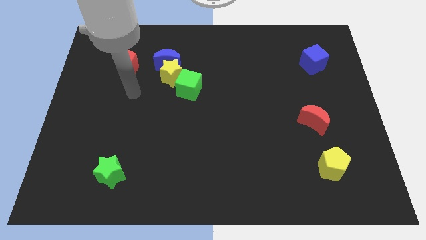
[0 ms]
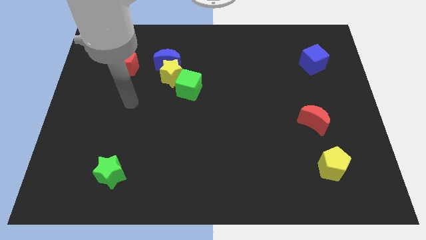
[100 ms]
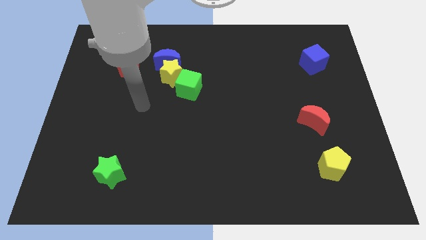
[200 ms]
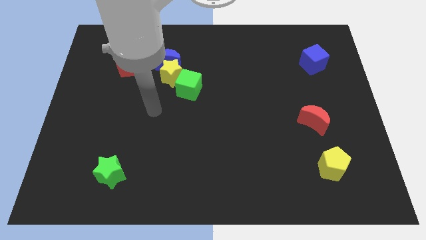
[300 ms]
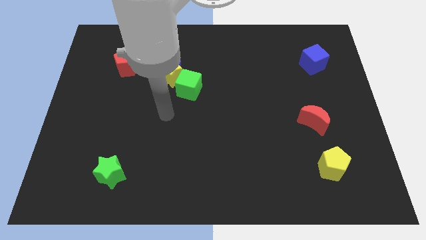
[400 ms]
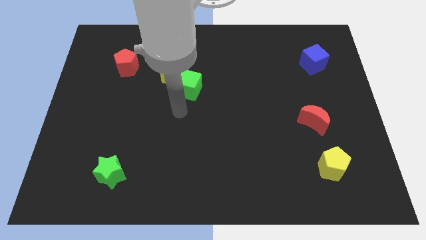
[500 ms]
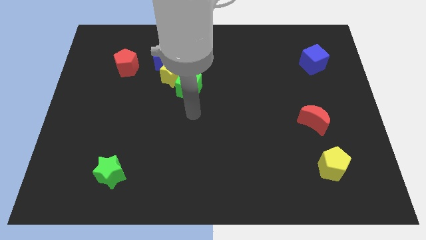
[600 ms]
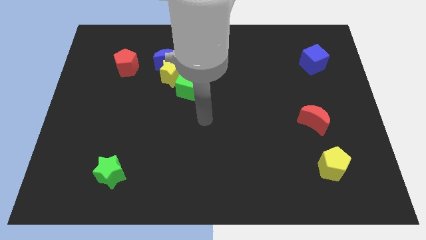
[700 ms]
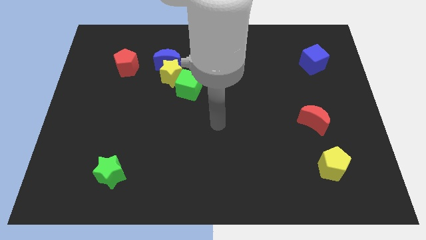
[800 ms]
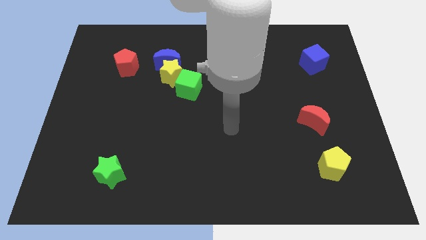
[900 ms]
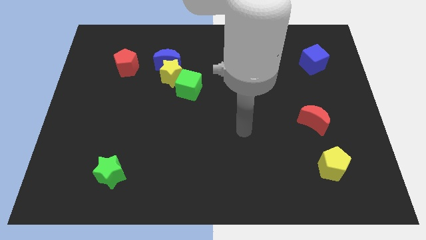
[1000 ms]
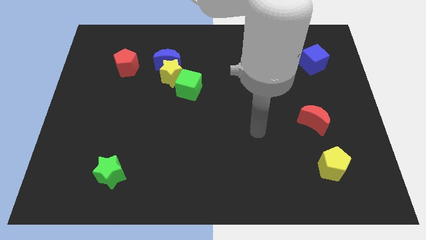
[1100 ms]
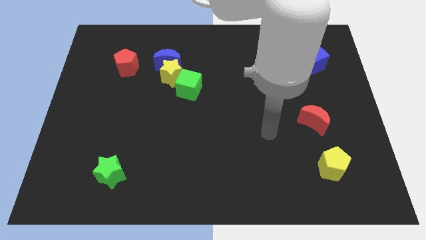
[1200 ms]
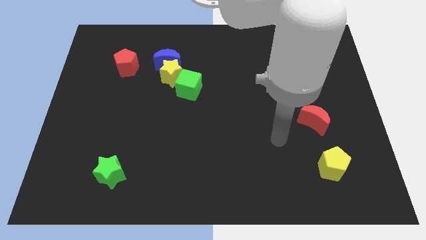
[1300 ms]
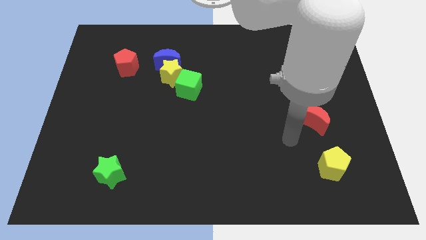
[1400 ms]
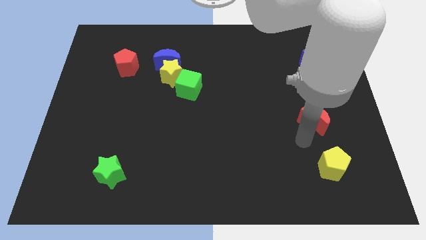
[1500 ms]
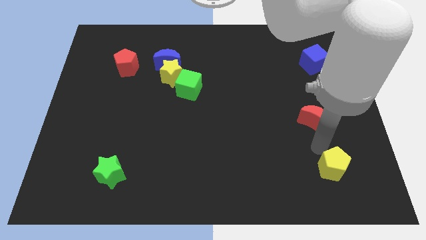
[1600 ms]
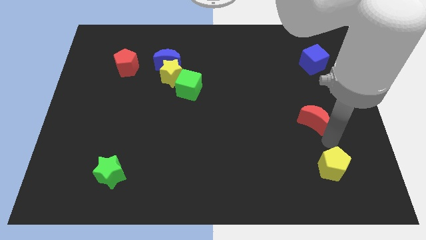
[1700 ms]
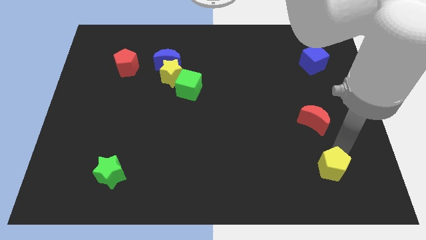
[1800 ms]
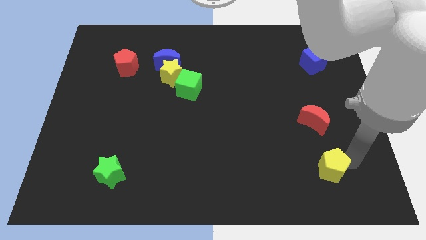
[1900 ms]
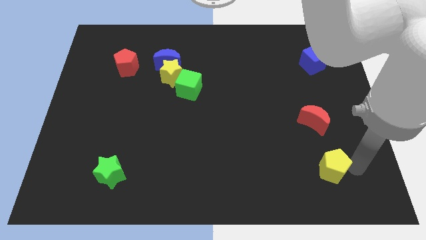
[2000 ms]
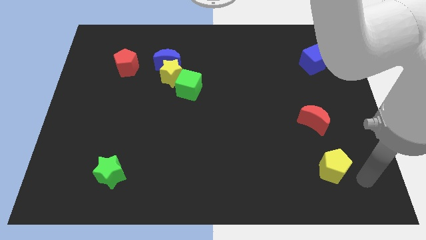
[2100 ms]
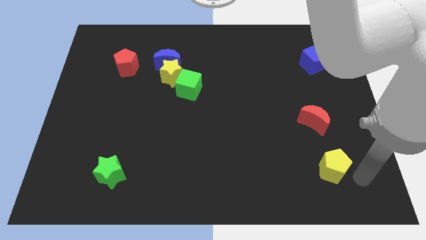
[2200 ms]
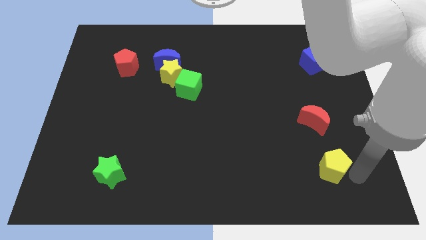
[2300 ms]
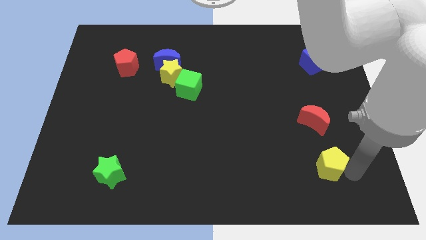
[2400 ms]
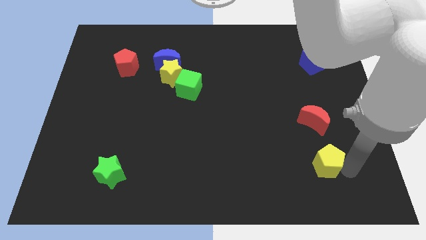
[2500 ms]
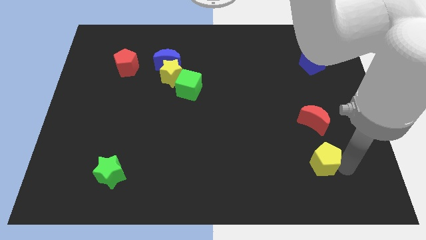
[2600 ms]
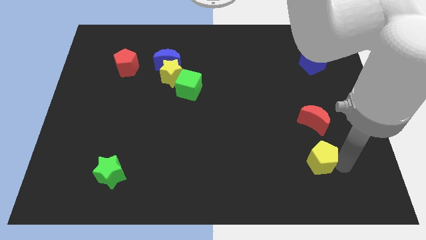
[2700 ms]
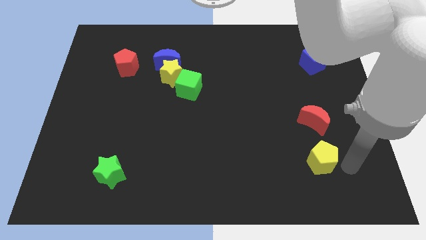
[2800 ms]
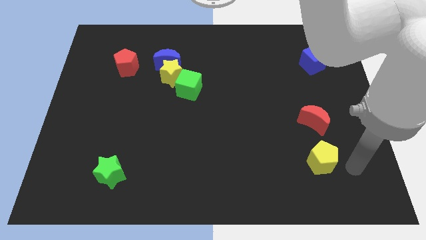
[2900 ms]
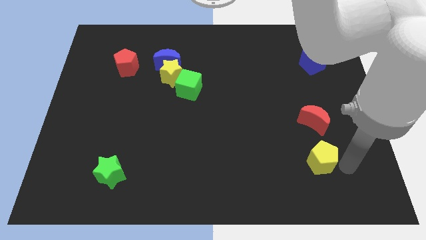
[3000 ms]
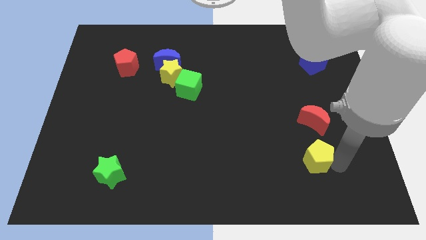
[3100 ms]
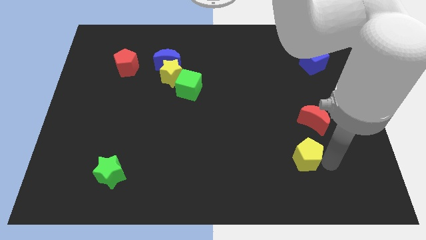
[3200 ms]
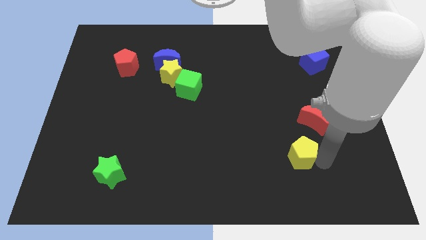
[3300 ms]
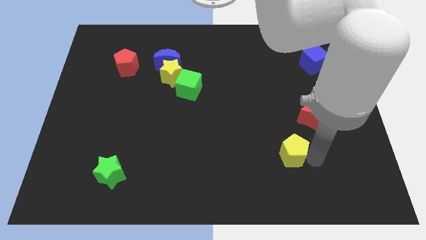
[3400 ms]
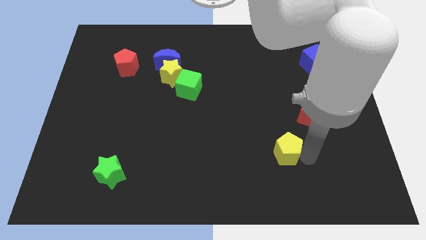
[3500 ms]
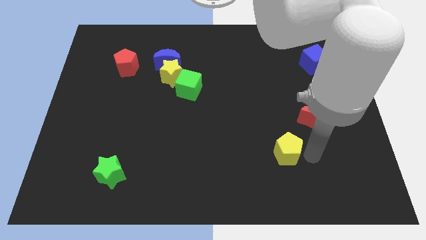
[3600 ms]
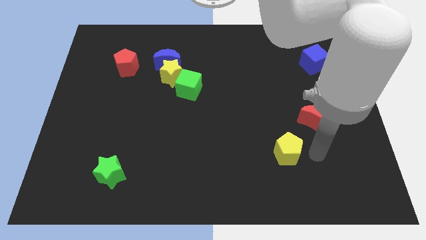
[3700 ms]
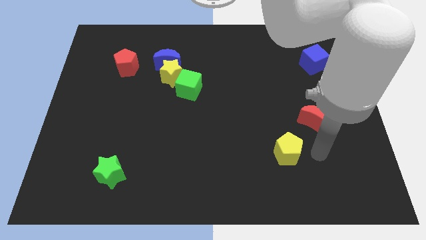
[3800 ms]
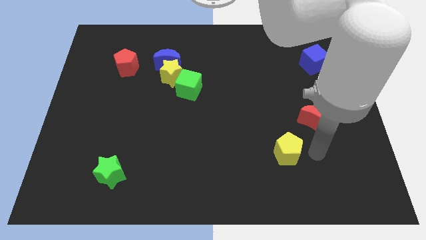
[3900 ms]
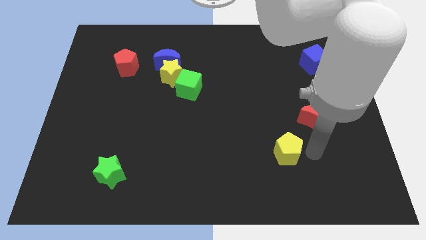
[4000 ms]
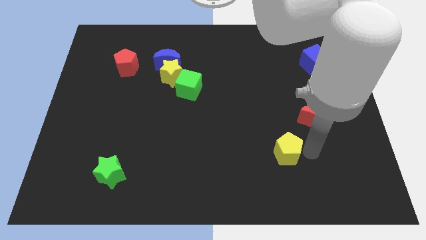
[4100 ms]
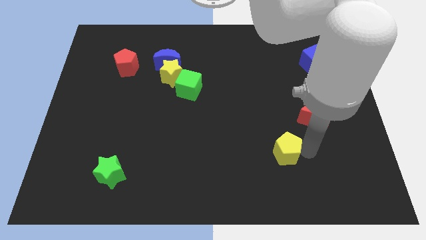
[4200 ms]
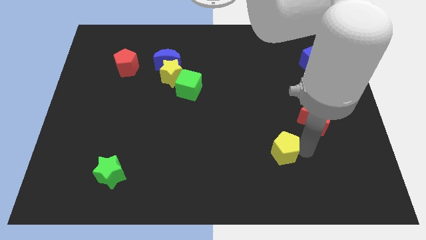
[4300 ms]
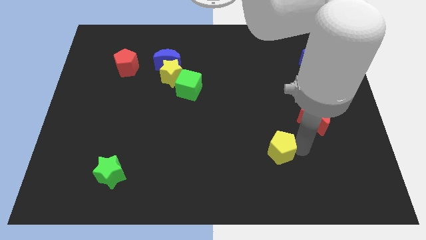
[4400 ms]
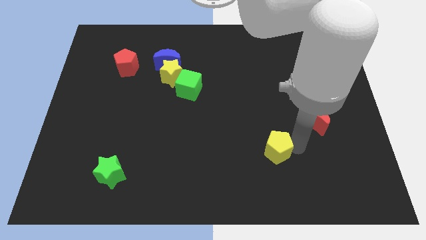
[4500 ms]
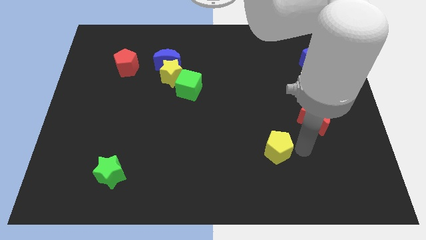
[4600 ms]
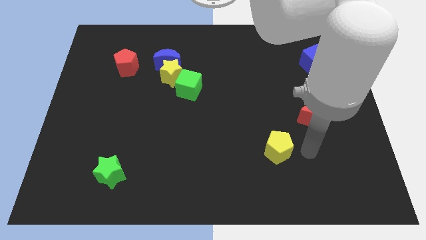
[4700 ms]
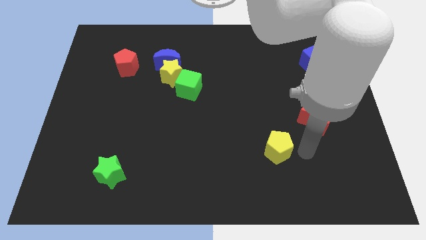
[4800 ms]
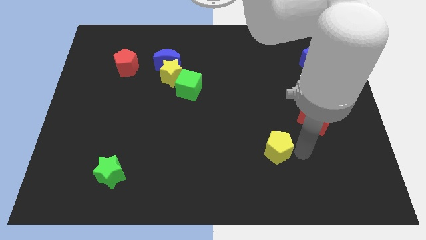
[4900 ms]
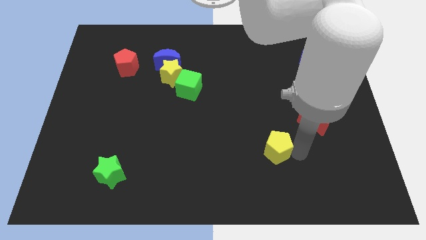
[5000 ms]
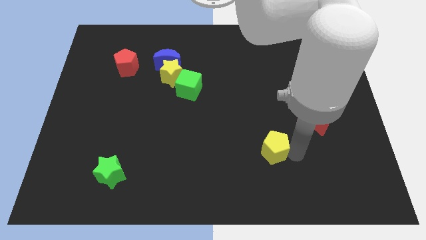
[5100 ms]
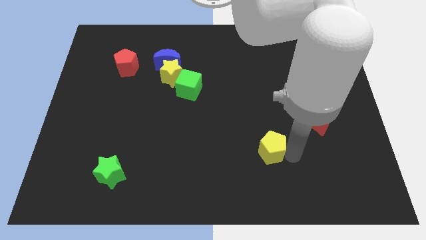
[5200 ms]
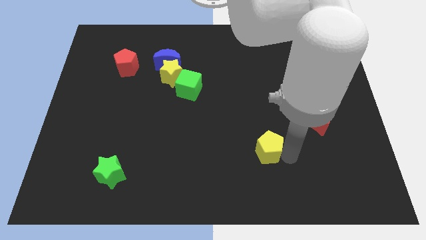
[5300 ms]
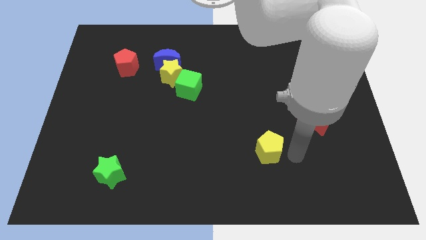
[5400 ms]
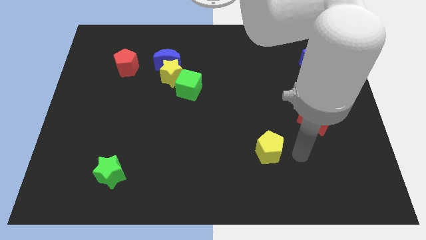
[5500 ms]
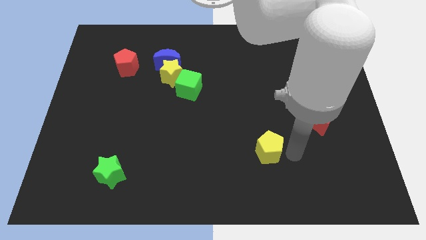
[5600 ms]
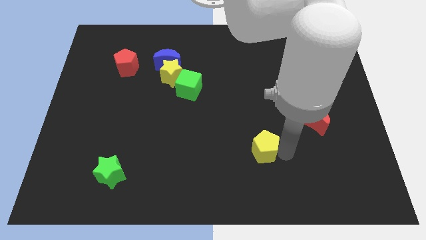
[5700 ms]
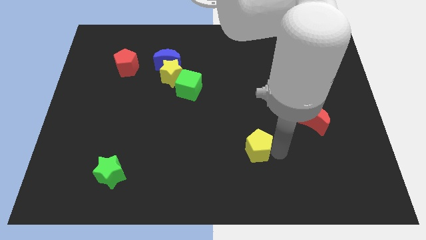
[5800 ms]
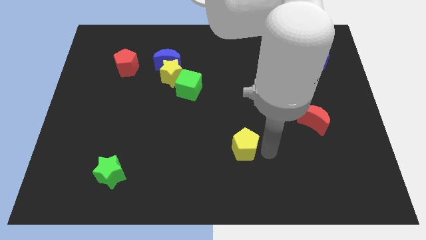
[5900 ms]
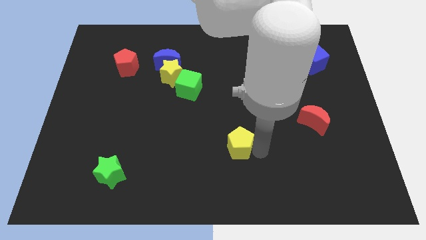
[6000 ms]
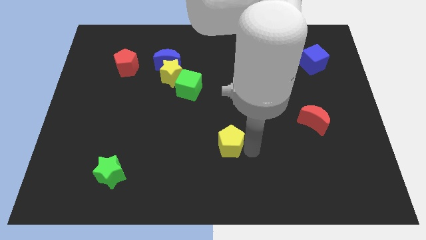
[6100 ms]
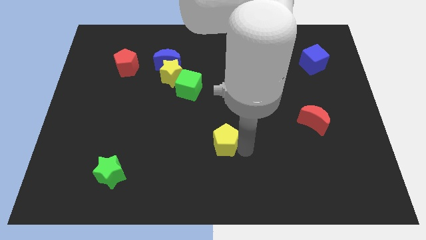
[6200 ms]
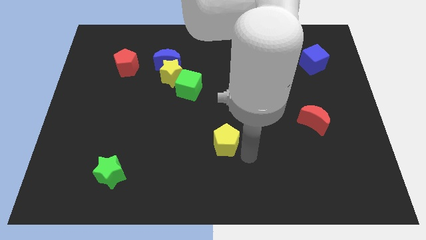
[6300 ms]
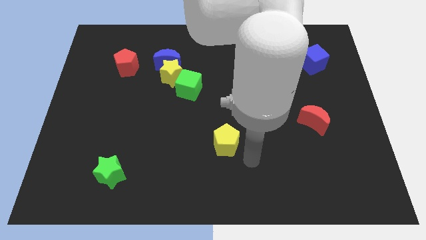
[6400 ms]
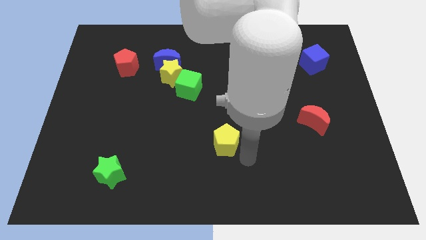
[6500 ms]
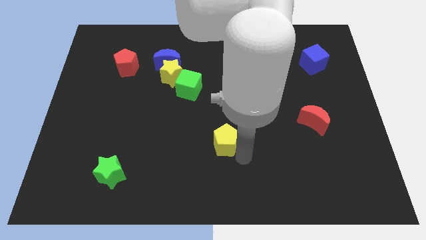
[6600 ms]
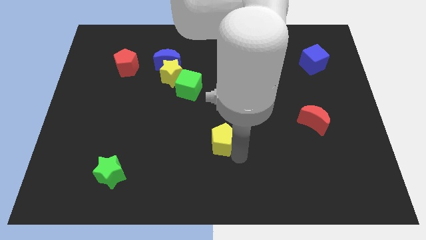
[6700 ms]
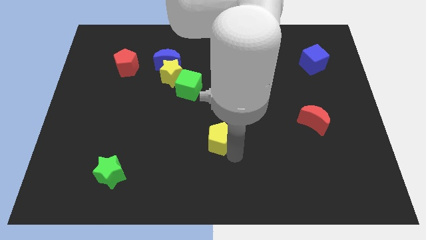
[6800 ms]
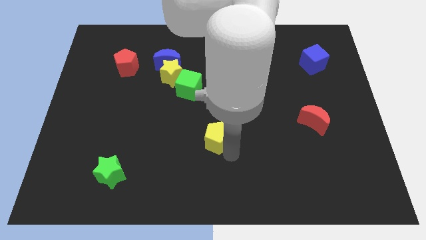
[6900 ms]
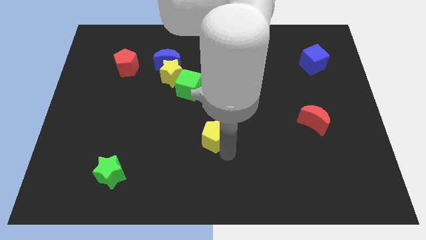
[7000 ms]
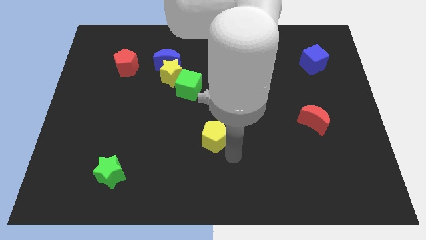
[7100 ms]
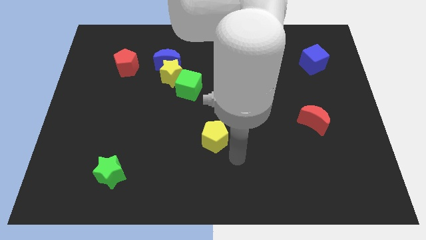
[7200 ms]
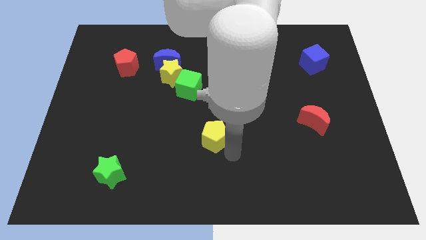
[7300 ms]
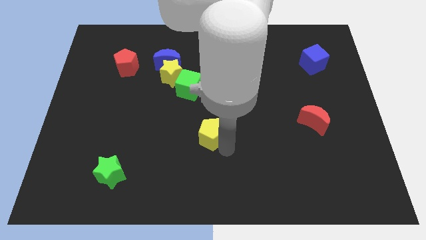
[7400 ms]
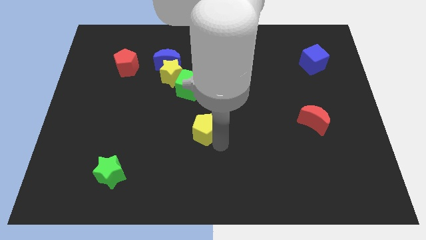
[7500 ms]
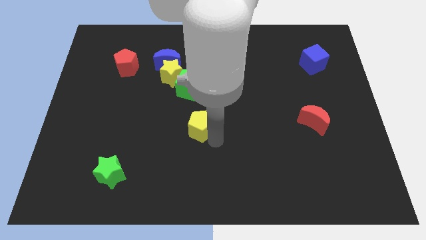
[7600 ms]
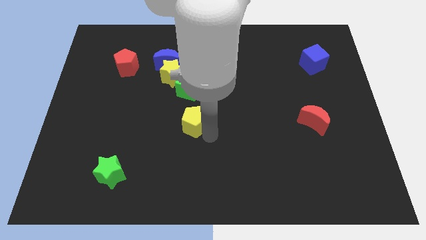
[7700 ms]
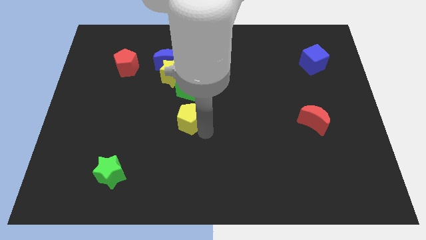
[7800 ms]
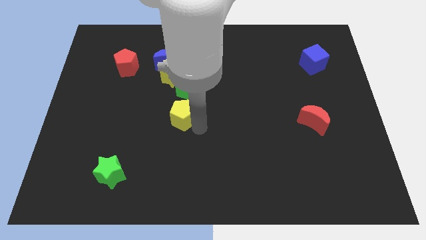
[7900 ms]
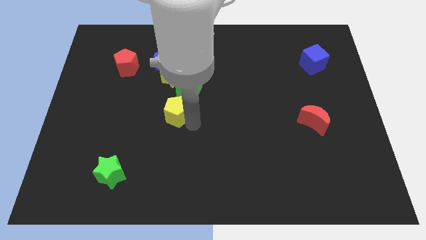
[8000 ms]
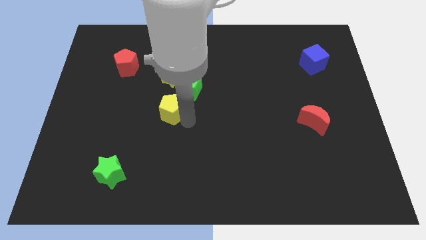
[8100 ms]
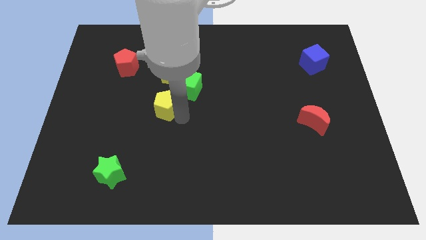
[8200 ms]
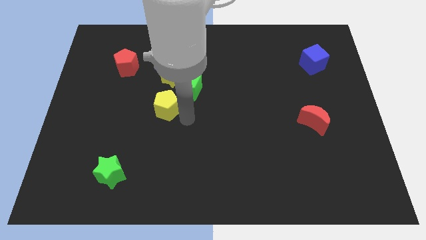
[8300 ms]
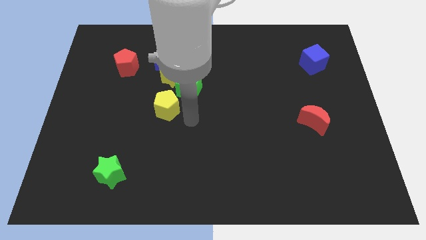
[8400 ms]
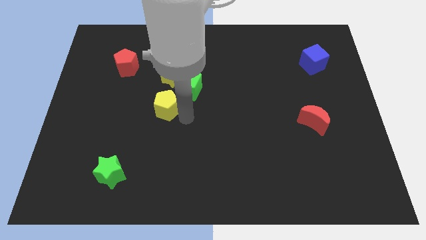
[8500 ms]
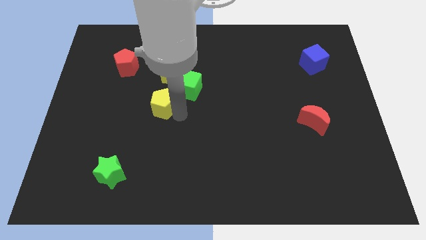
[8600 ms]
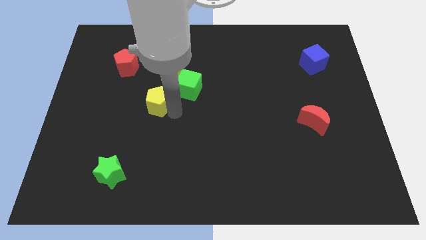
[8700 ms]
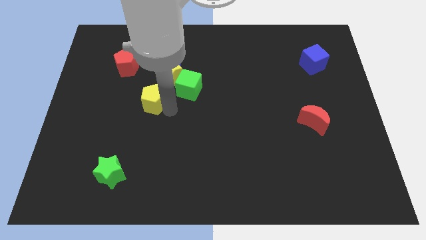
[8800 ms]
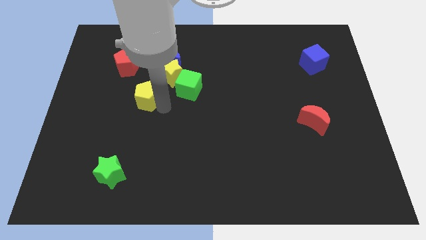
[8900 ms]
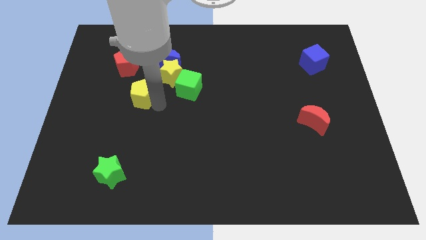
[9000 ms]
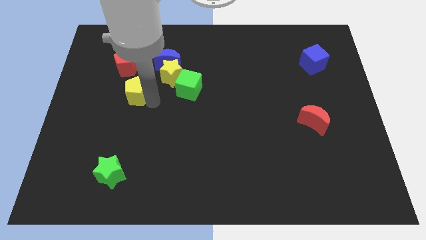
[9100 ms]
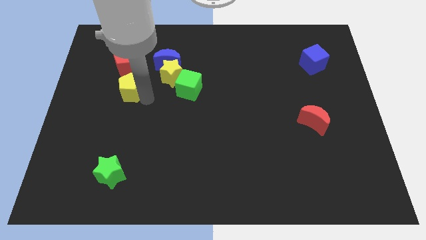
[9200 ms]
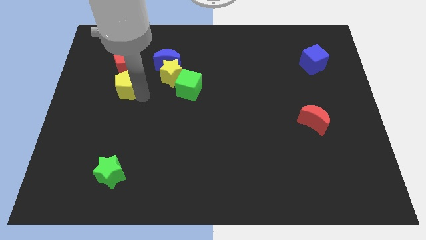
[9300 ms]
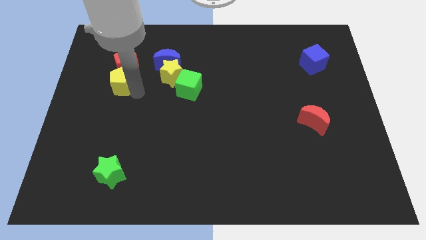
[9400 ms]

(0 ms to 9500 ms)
push the yellow pentagon diagonally down and to the left of the red pentagon
